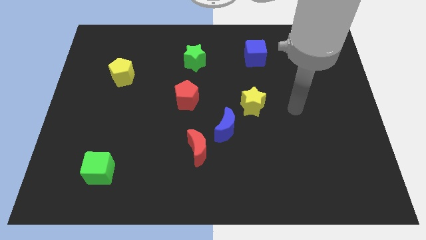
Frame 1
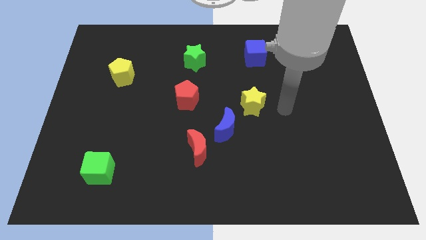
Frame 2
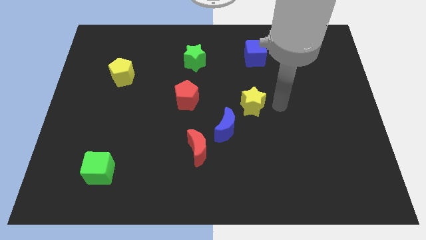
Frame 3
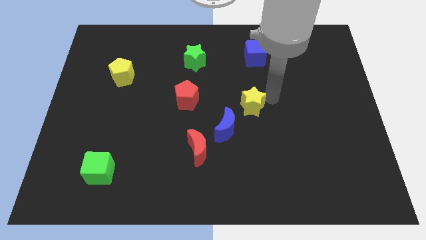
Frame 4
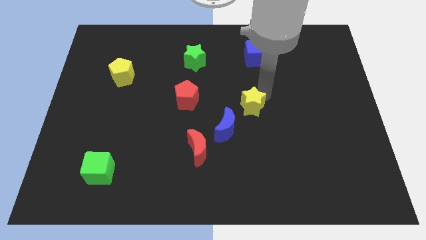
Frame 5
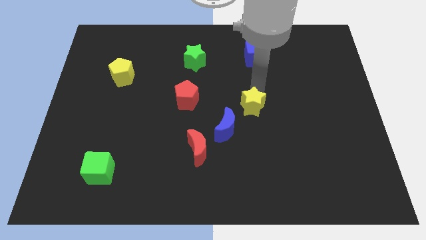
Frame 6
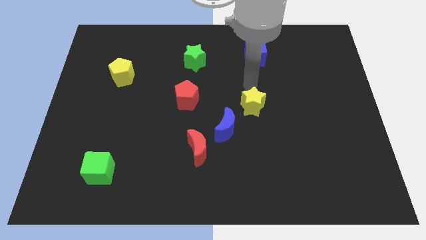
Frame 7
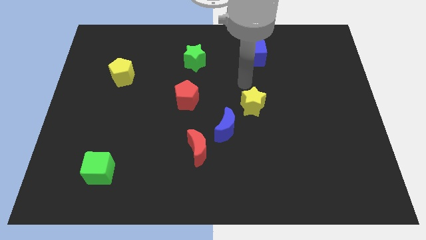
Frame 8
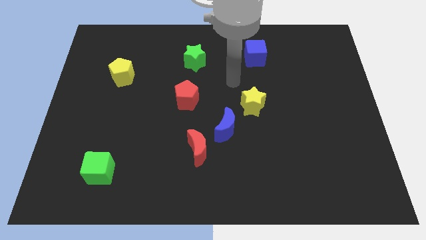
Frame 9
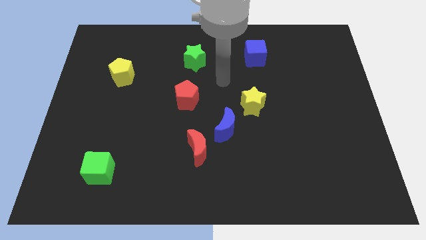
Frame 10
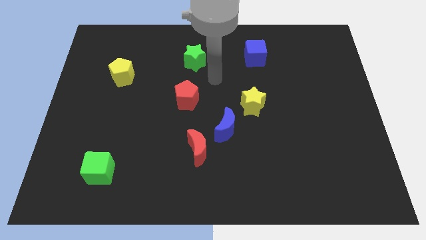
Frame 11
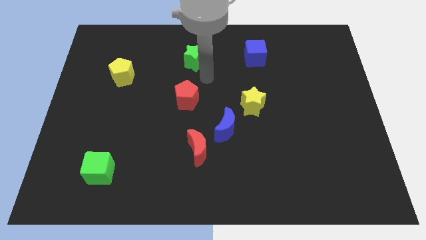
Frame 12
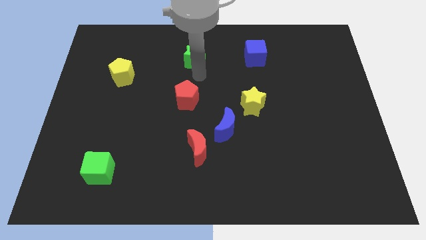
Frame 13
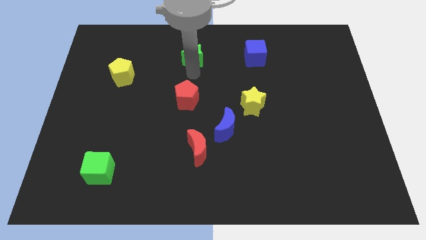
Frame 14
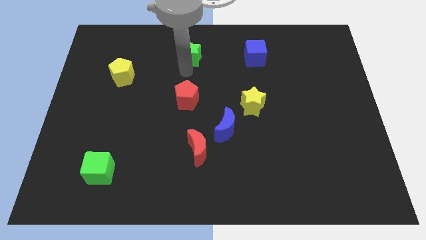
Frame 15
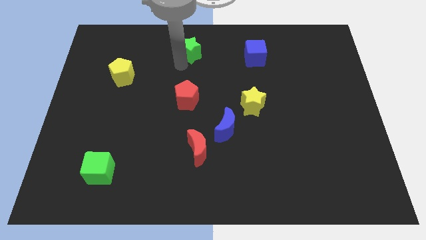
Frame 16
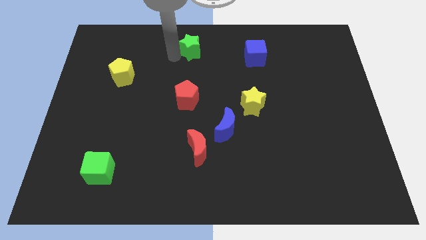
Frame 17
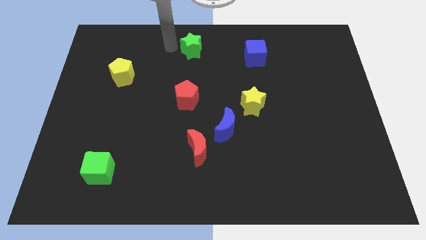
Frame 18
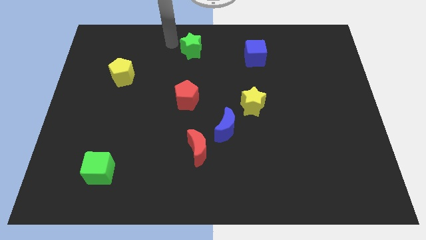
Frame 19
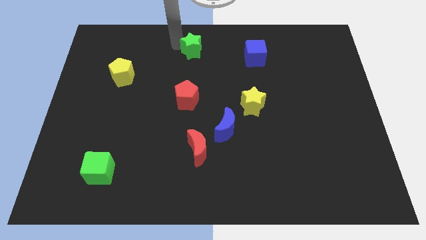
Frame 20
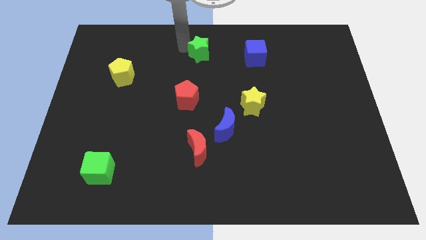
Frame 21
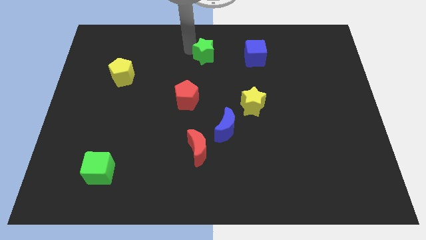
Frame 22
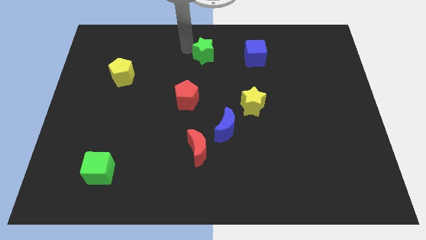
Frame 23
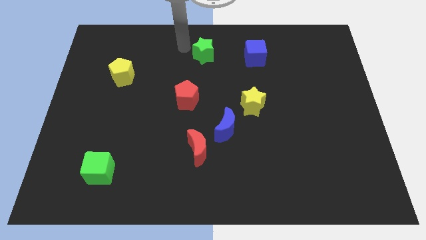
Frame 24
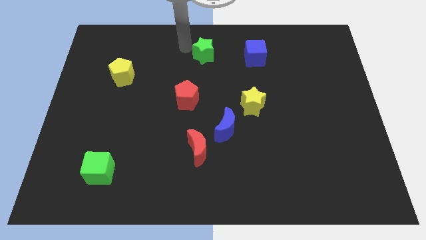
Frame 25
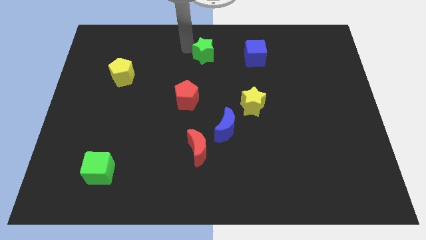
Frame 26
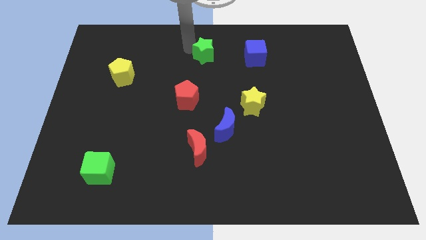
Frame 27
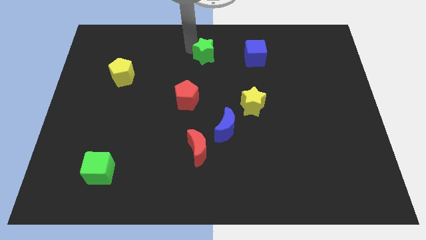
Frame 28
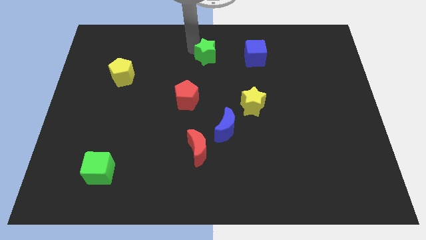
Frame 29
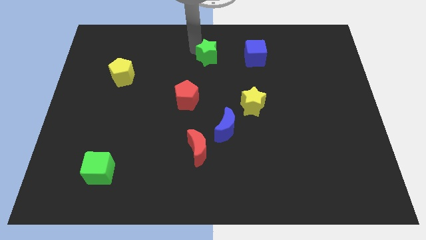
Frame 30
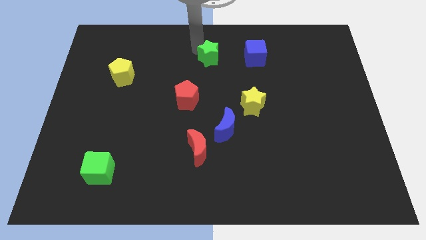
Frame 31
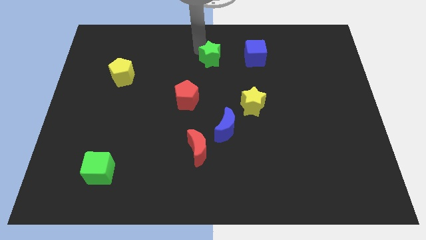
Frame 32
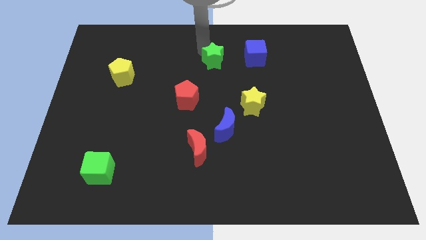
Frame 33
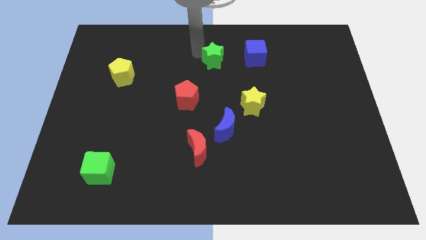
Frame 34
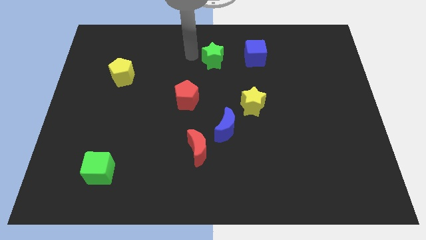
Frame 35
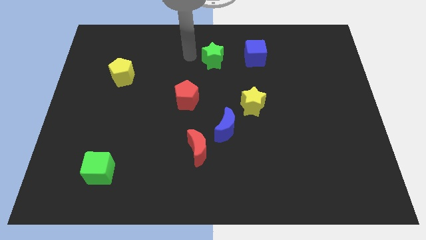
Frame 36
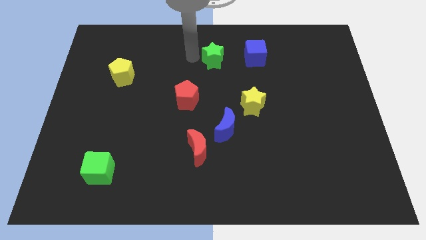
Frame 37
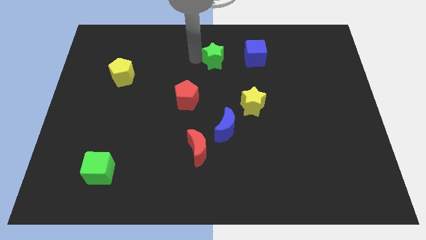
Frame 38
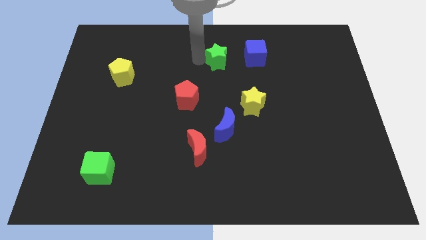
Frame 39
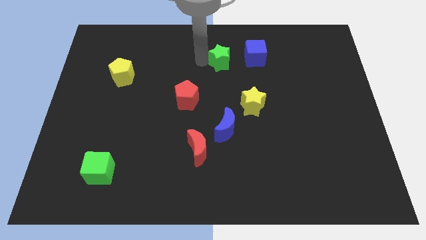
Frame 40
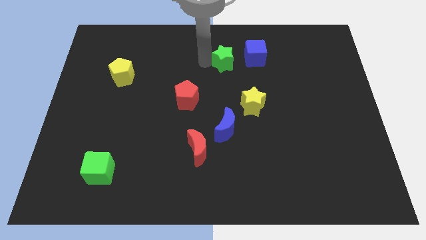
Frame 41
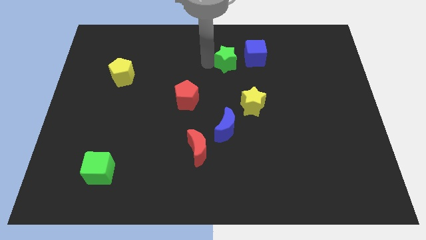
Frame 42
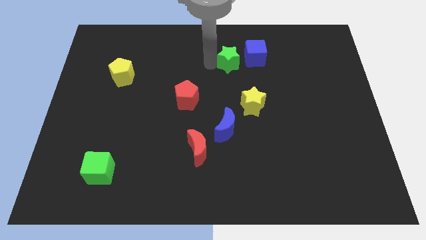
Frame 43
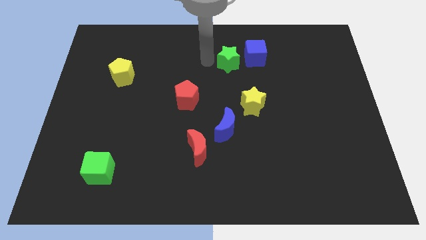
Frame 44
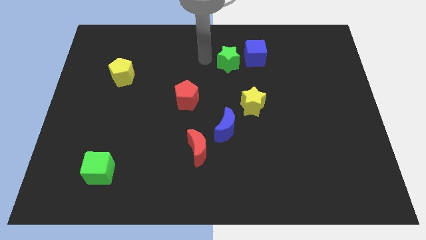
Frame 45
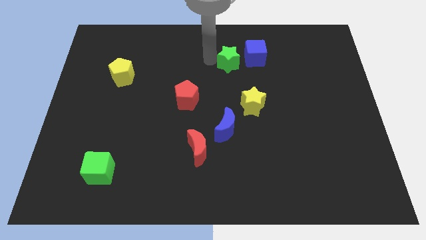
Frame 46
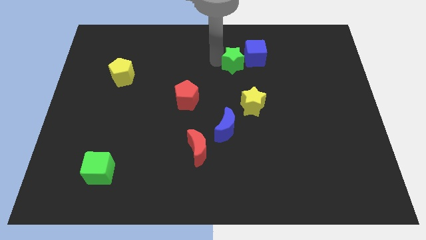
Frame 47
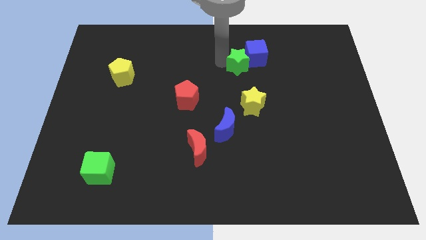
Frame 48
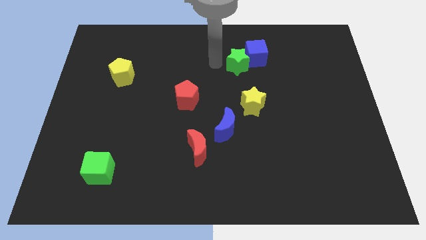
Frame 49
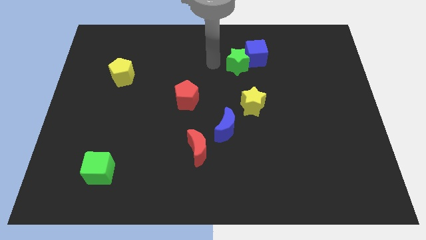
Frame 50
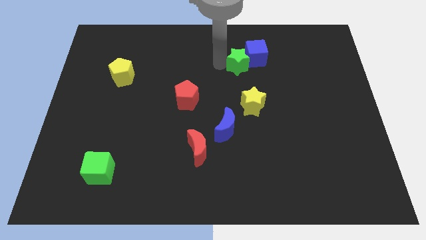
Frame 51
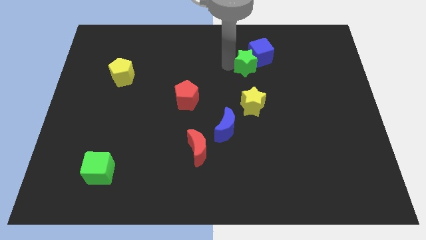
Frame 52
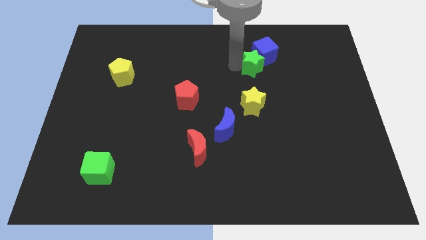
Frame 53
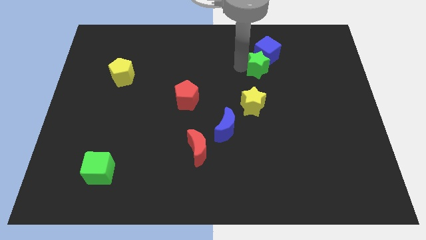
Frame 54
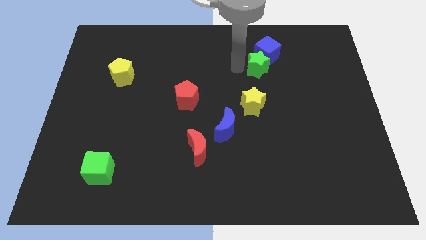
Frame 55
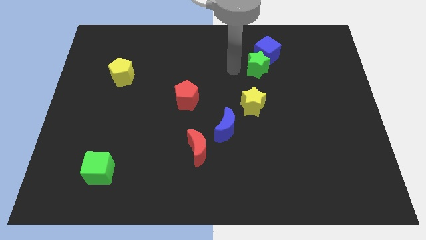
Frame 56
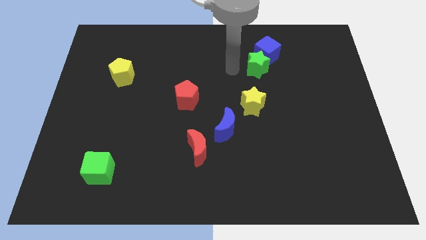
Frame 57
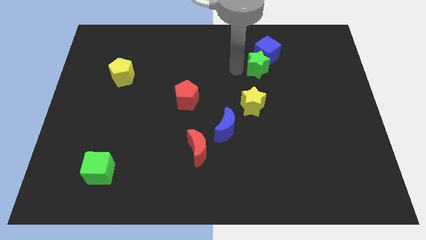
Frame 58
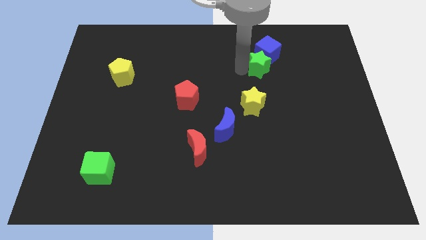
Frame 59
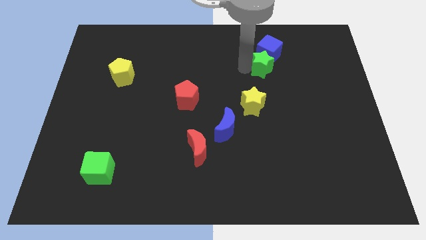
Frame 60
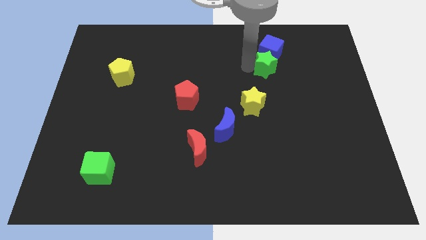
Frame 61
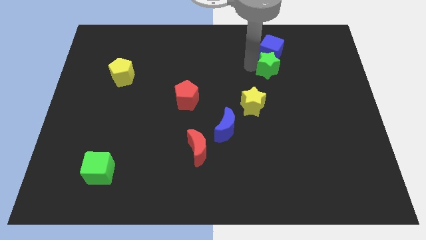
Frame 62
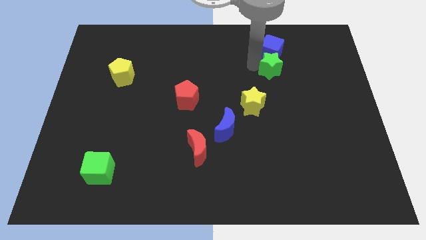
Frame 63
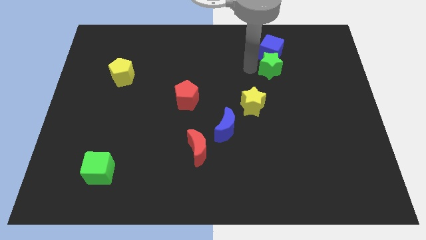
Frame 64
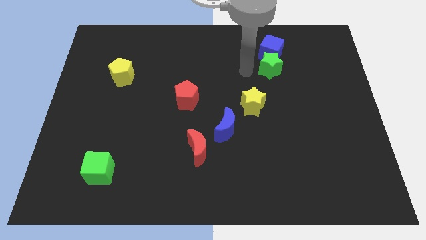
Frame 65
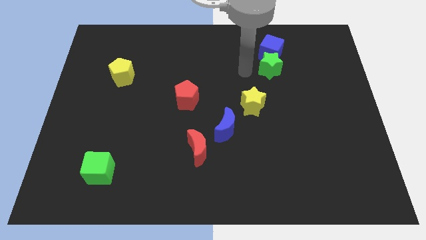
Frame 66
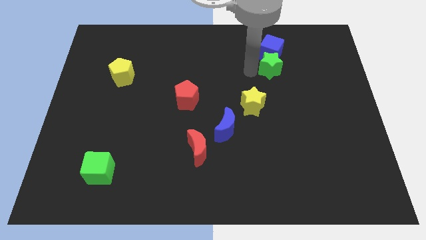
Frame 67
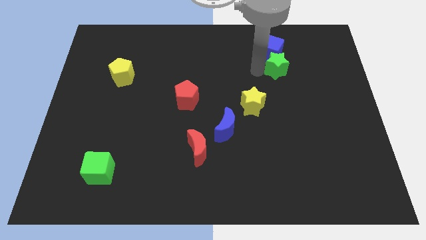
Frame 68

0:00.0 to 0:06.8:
move the green star to the right

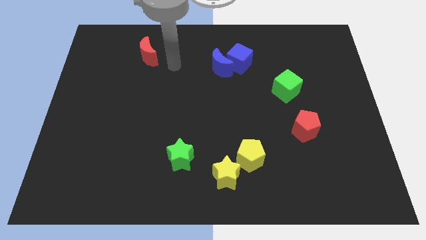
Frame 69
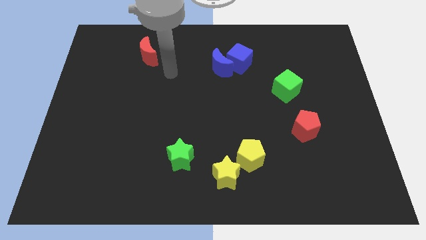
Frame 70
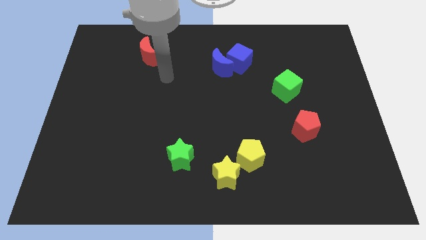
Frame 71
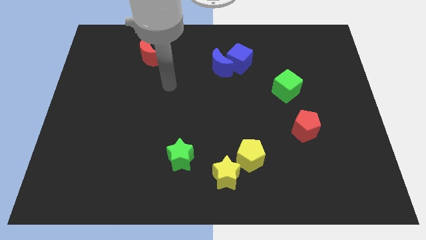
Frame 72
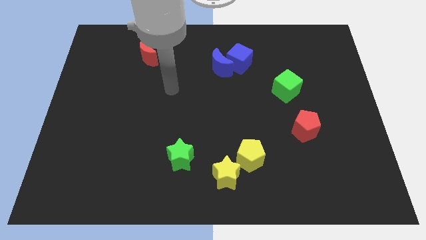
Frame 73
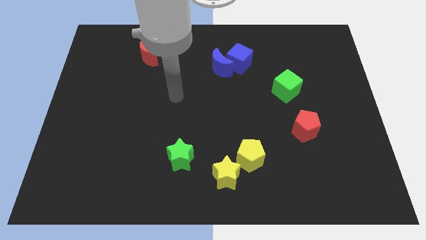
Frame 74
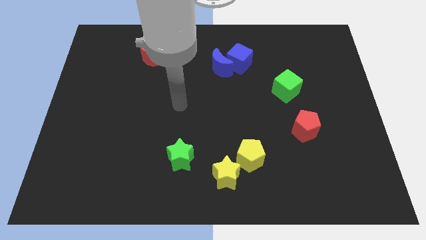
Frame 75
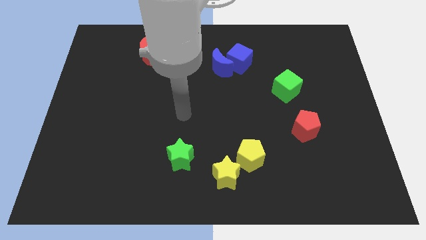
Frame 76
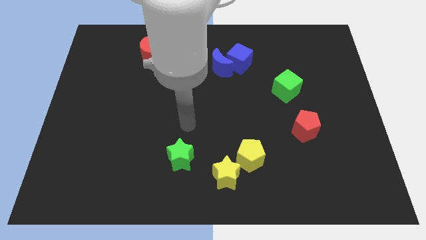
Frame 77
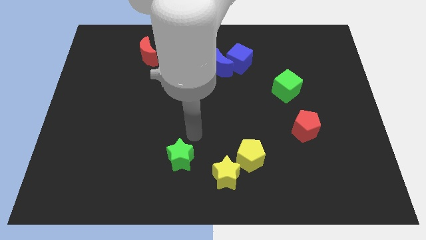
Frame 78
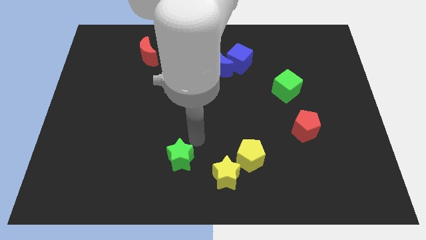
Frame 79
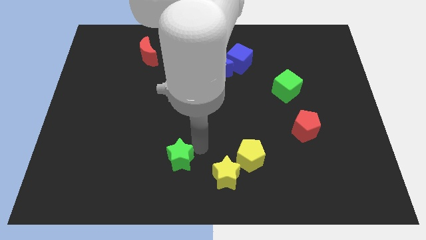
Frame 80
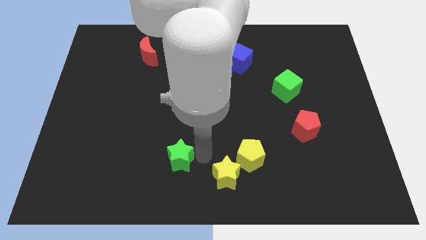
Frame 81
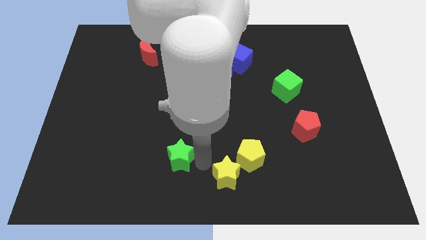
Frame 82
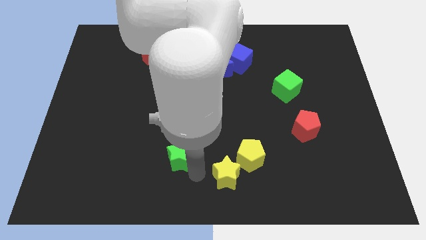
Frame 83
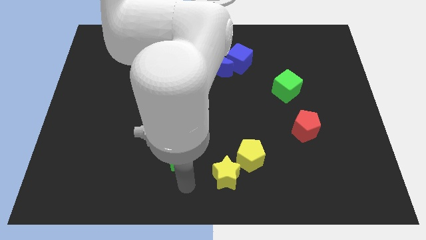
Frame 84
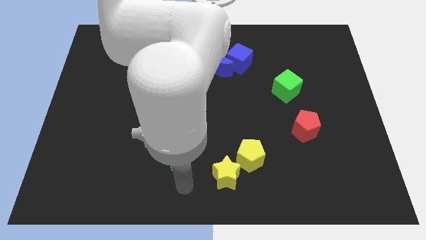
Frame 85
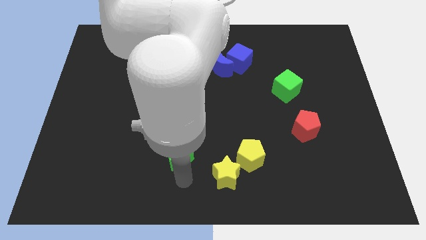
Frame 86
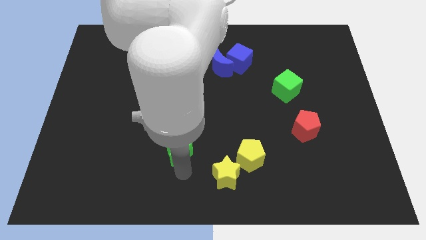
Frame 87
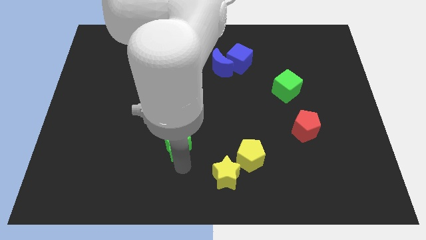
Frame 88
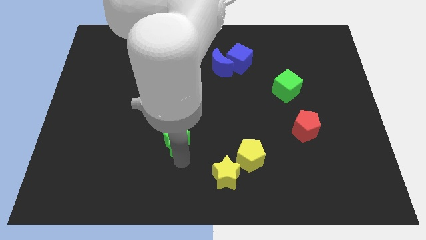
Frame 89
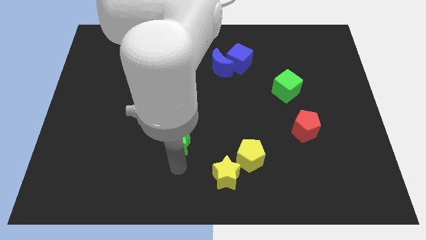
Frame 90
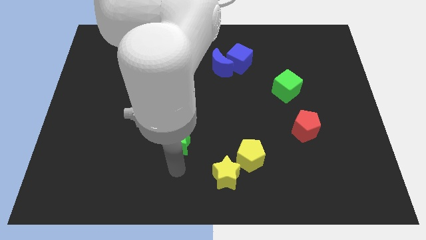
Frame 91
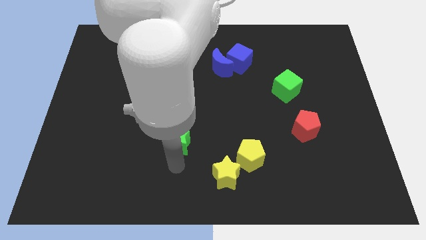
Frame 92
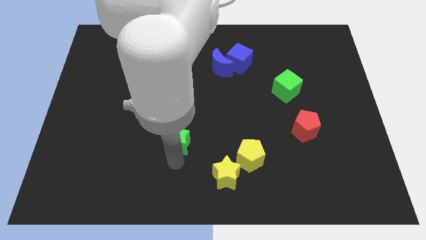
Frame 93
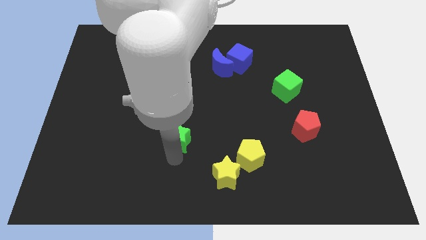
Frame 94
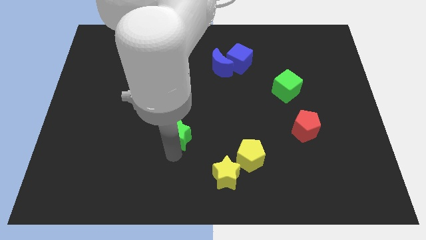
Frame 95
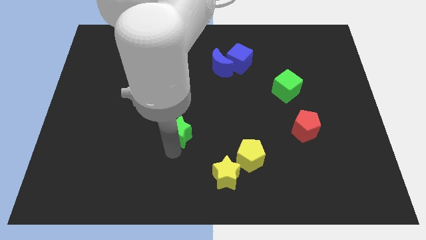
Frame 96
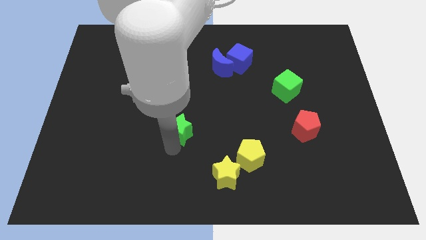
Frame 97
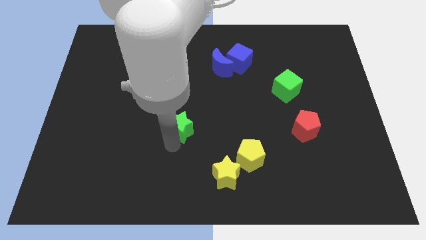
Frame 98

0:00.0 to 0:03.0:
slightly push the green star up
